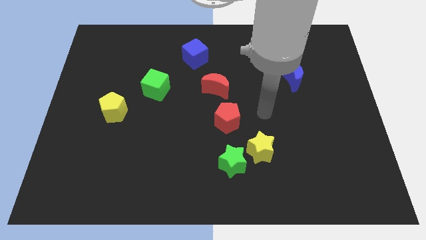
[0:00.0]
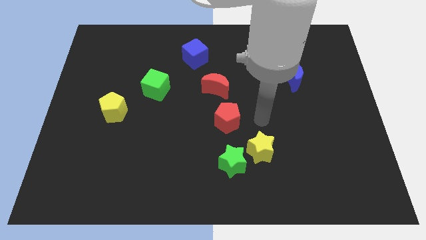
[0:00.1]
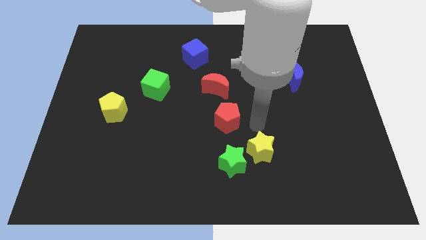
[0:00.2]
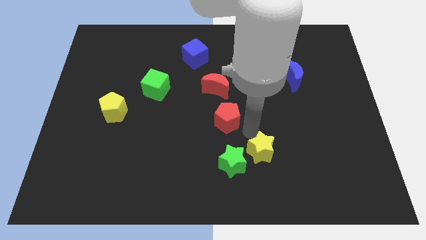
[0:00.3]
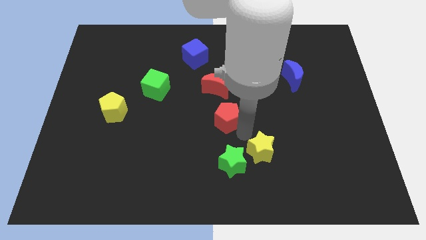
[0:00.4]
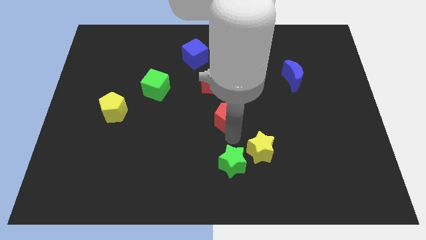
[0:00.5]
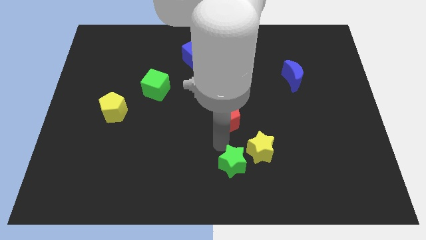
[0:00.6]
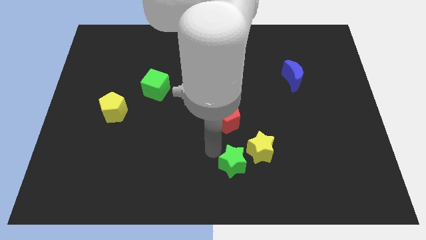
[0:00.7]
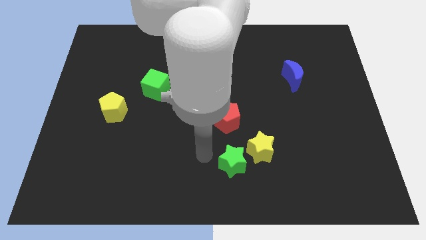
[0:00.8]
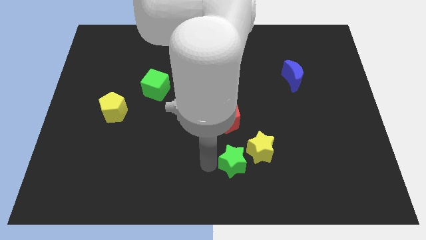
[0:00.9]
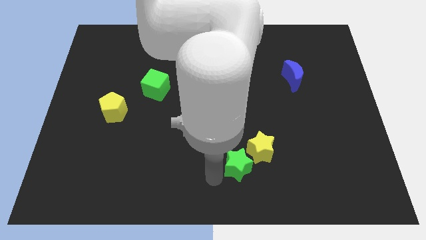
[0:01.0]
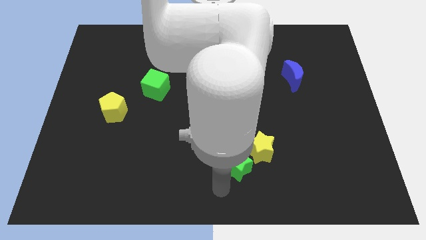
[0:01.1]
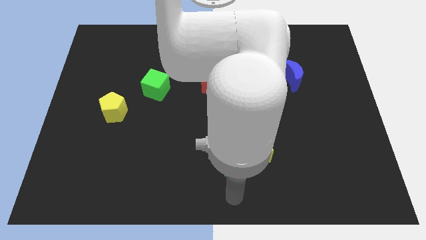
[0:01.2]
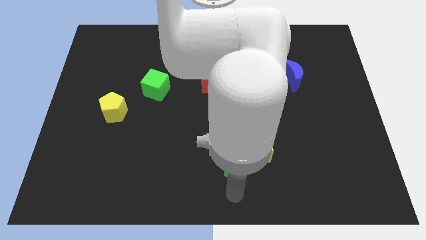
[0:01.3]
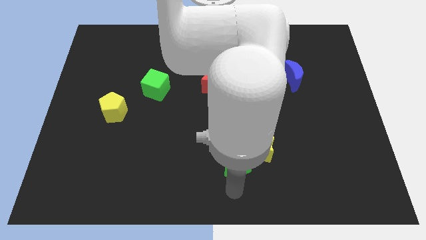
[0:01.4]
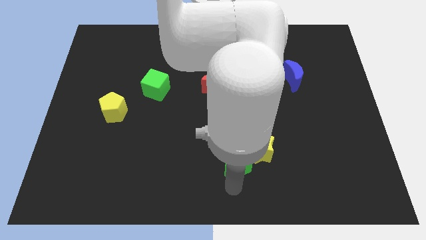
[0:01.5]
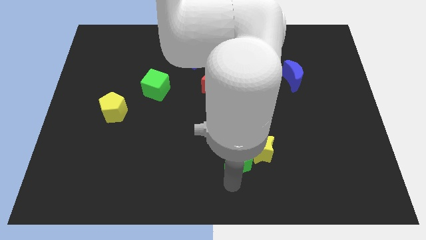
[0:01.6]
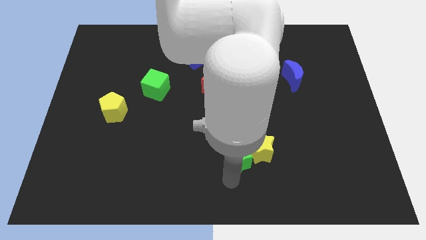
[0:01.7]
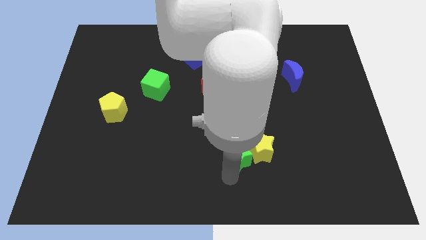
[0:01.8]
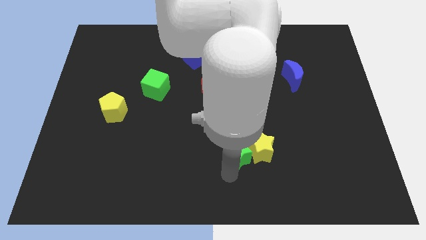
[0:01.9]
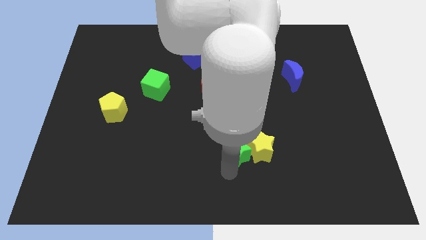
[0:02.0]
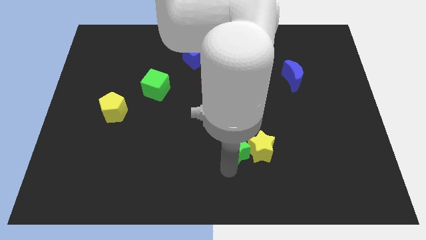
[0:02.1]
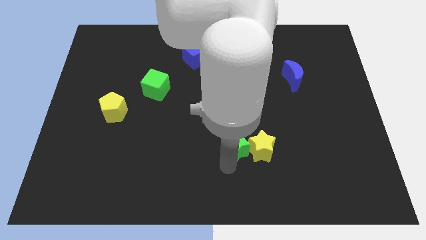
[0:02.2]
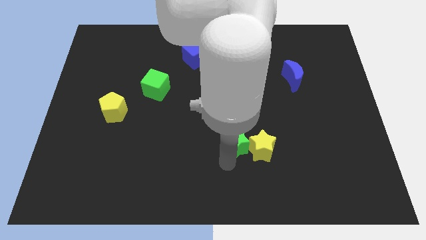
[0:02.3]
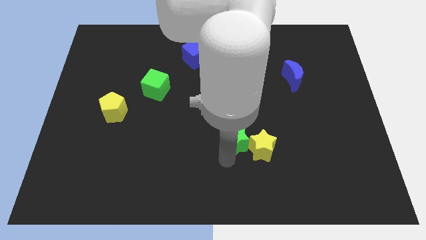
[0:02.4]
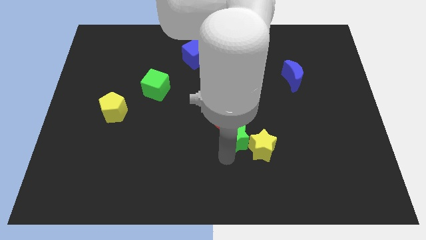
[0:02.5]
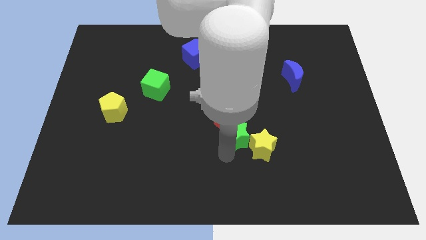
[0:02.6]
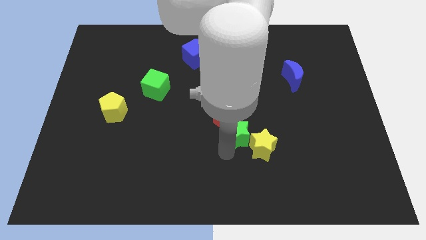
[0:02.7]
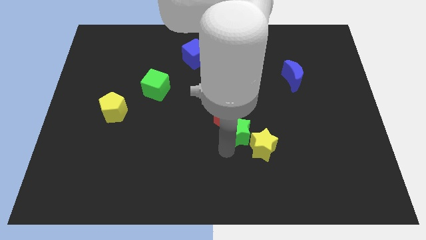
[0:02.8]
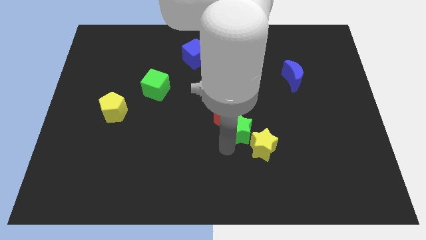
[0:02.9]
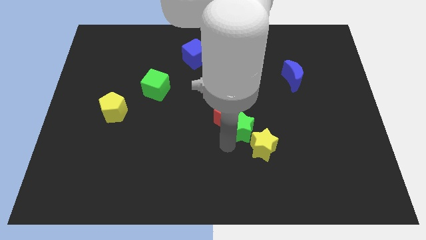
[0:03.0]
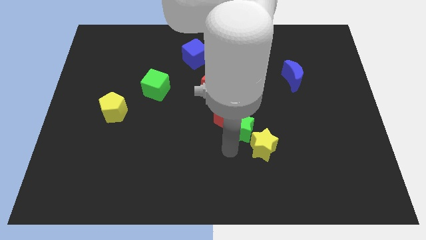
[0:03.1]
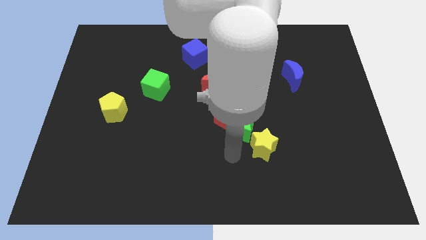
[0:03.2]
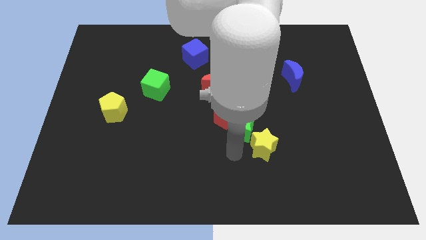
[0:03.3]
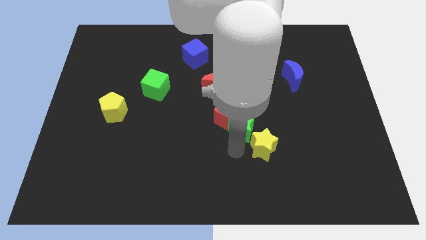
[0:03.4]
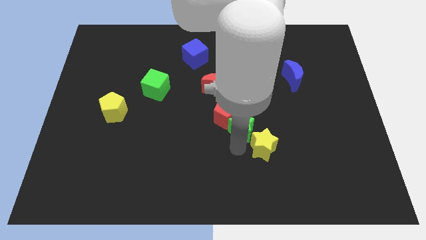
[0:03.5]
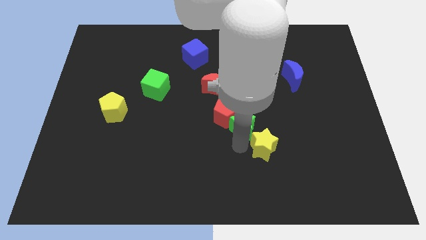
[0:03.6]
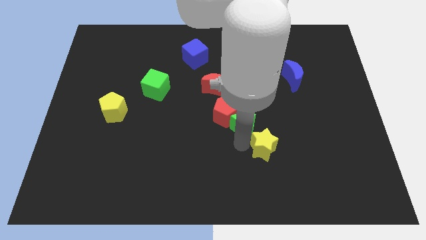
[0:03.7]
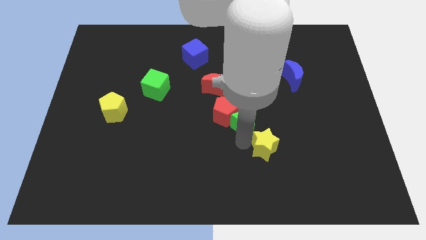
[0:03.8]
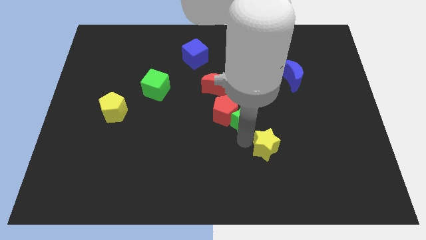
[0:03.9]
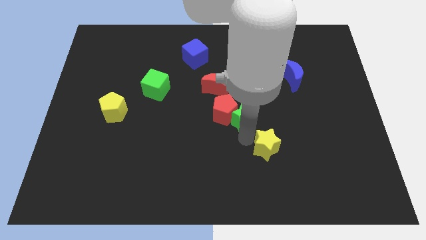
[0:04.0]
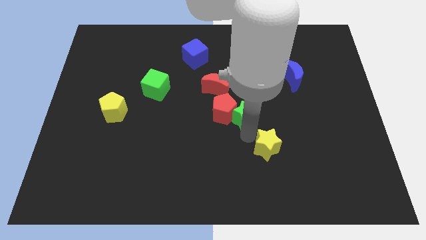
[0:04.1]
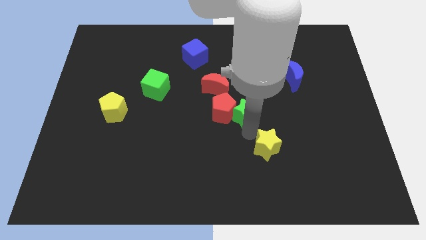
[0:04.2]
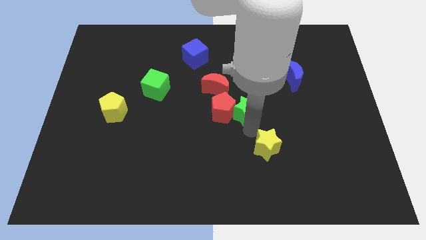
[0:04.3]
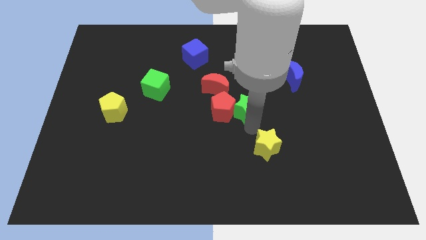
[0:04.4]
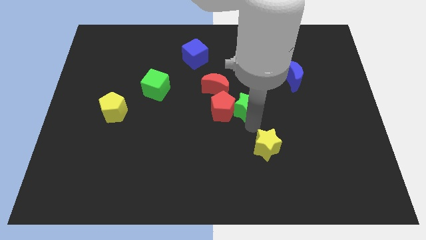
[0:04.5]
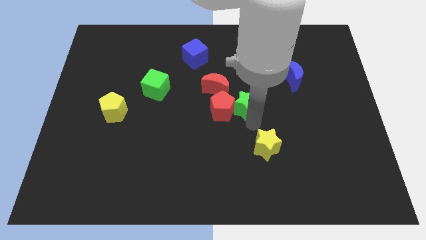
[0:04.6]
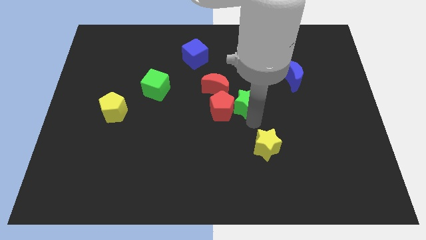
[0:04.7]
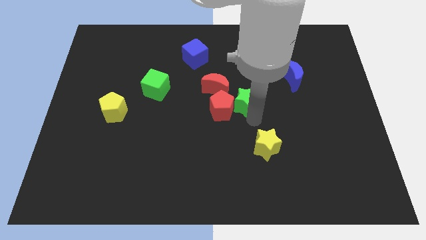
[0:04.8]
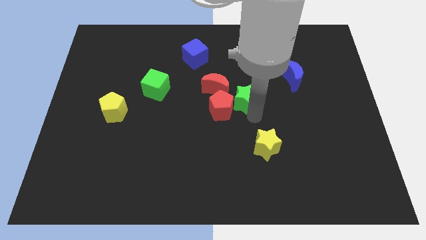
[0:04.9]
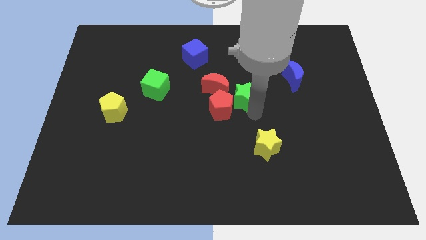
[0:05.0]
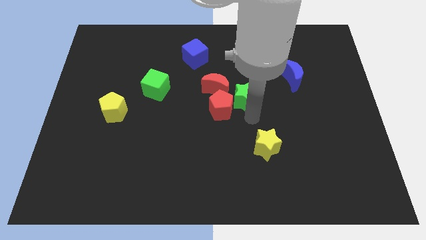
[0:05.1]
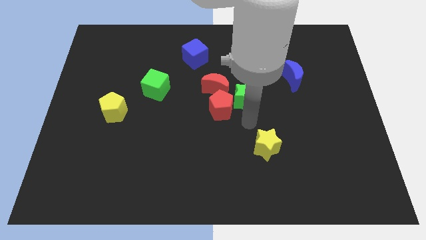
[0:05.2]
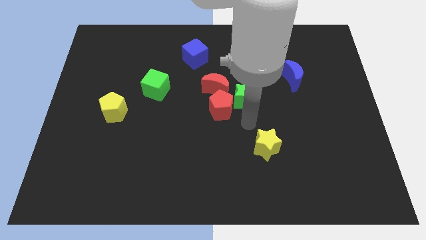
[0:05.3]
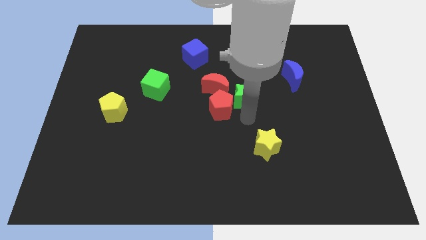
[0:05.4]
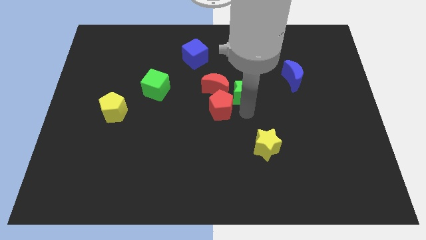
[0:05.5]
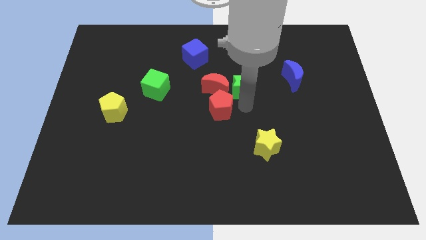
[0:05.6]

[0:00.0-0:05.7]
move the green star upwards

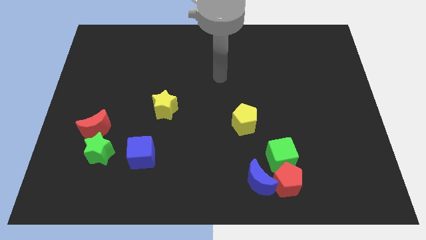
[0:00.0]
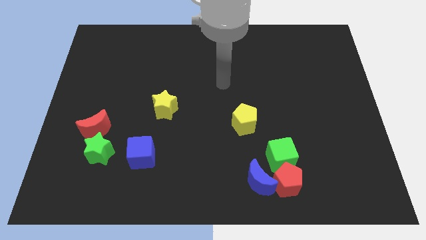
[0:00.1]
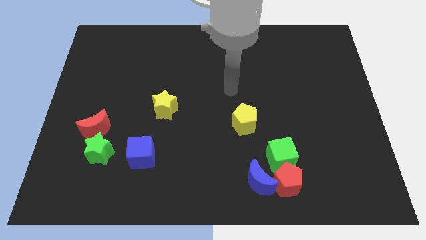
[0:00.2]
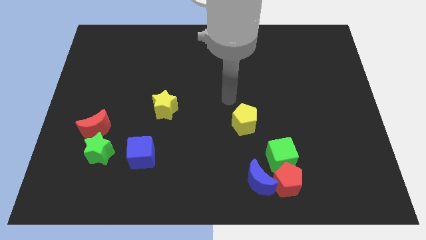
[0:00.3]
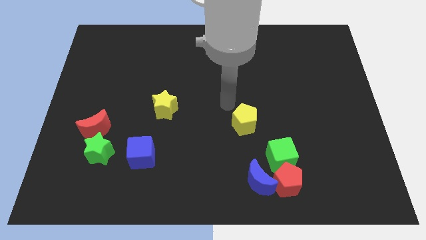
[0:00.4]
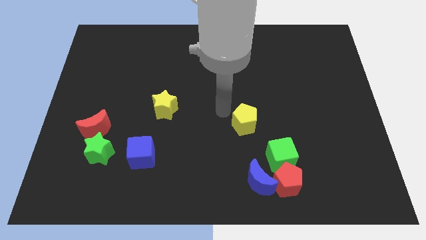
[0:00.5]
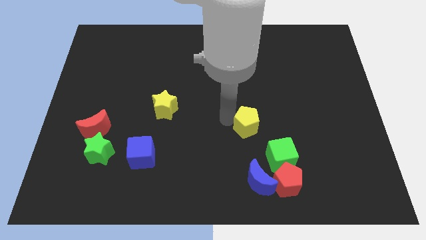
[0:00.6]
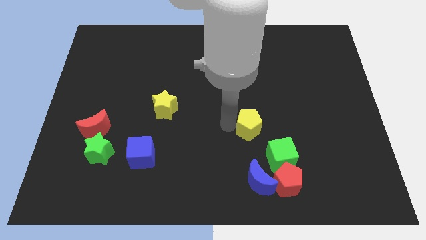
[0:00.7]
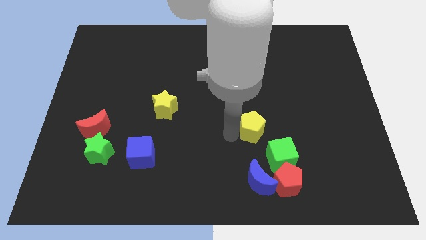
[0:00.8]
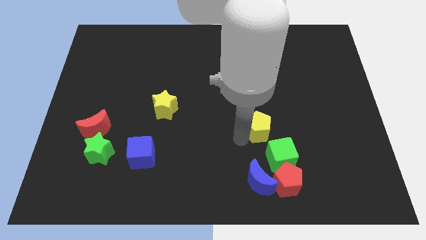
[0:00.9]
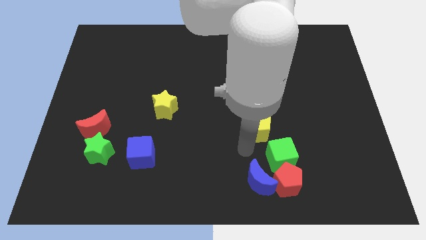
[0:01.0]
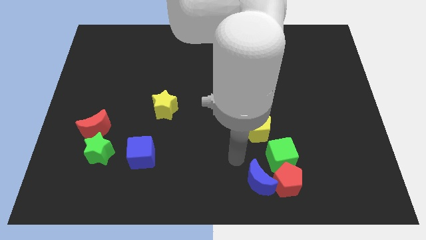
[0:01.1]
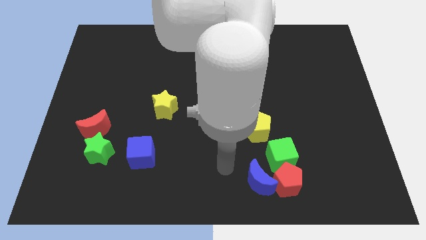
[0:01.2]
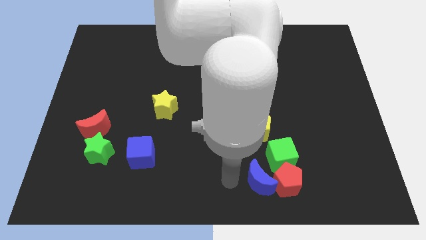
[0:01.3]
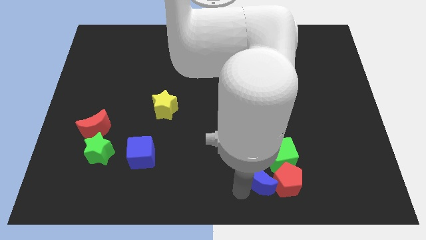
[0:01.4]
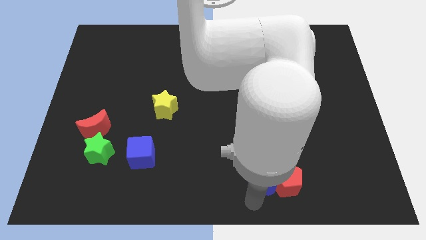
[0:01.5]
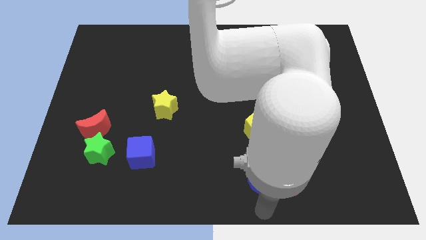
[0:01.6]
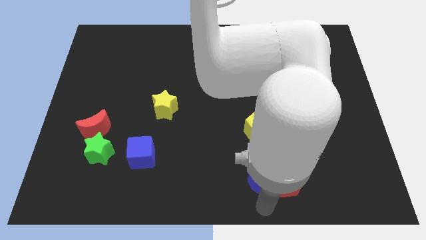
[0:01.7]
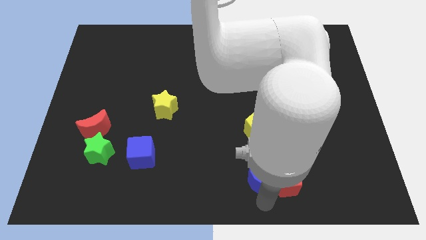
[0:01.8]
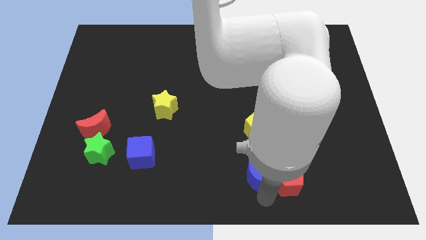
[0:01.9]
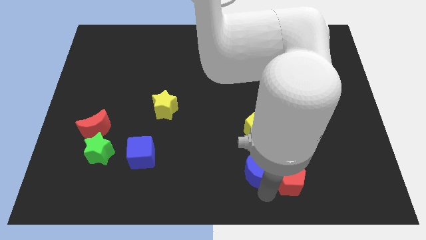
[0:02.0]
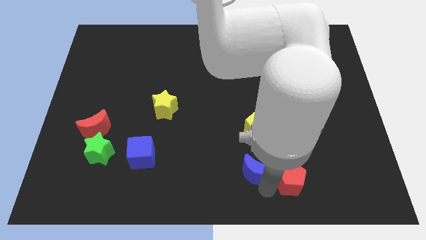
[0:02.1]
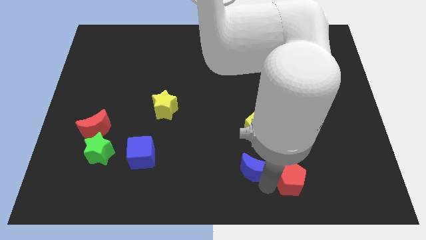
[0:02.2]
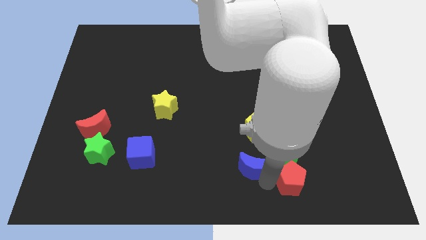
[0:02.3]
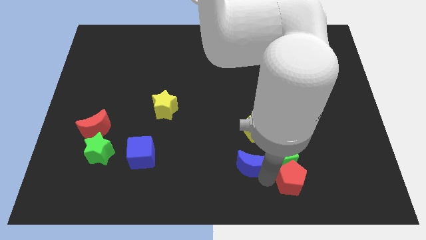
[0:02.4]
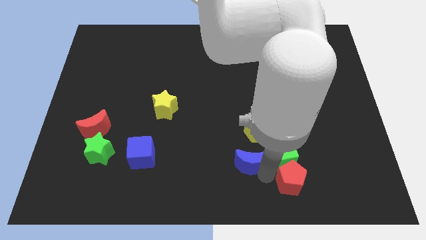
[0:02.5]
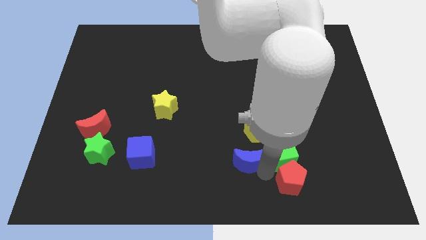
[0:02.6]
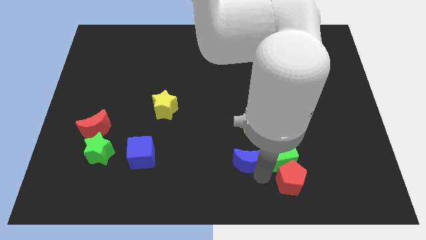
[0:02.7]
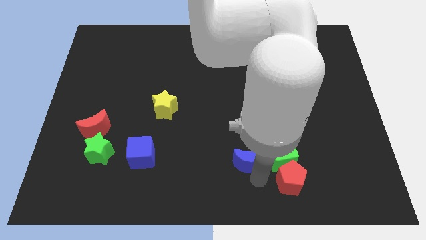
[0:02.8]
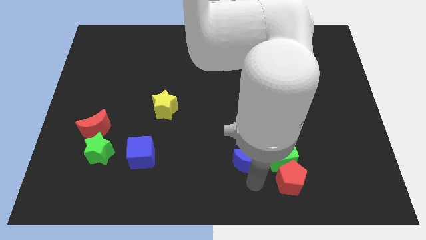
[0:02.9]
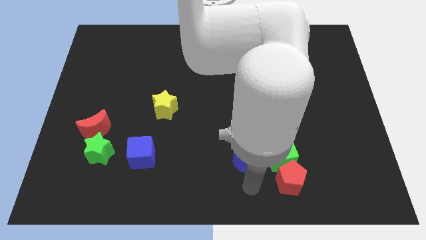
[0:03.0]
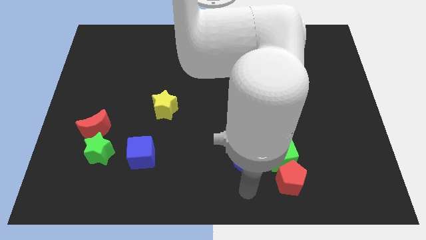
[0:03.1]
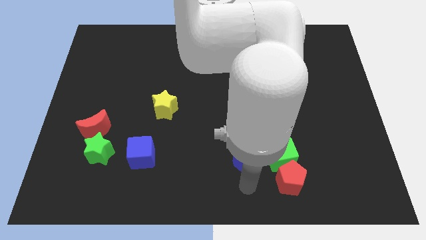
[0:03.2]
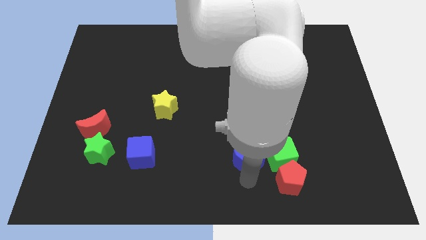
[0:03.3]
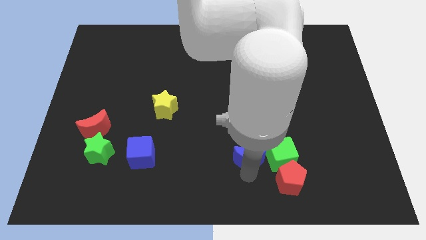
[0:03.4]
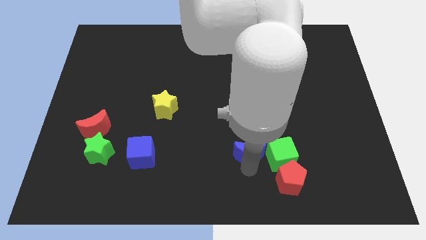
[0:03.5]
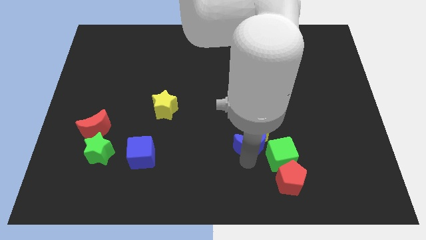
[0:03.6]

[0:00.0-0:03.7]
push the blue moon up somewhat
